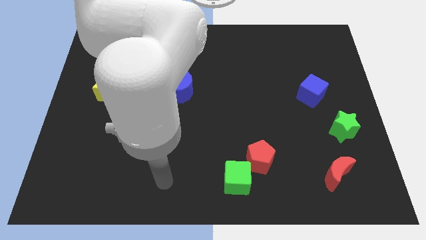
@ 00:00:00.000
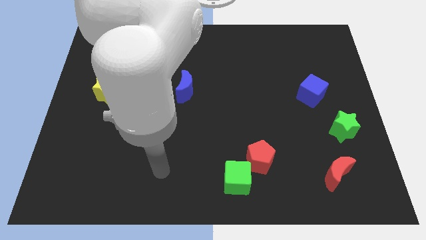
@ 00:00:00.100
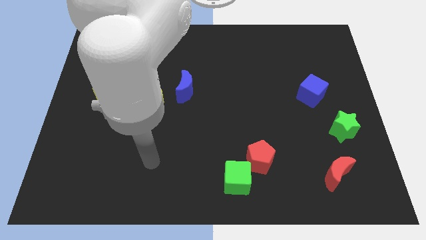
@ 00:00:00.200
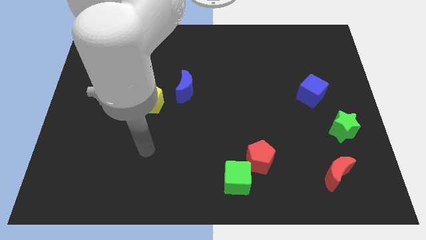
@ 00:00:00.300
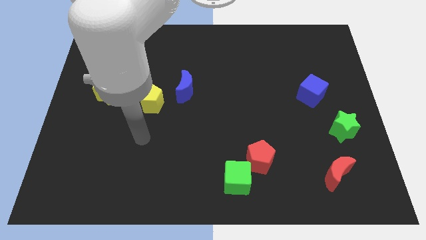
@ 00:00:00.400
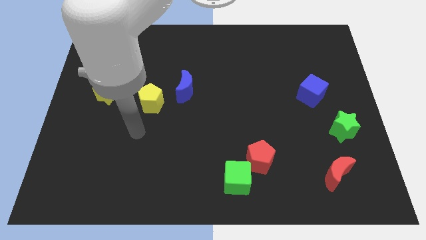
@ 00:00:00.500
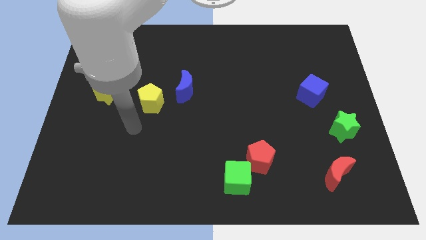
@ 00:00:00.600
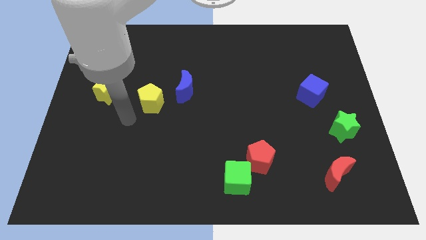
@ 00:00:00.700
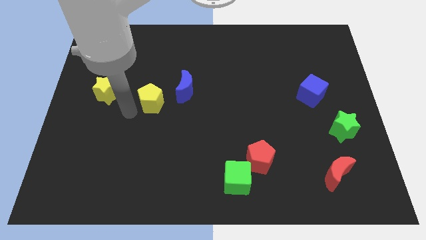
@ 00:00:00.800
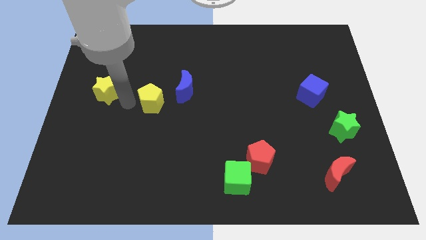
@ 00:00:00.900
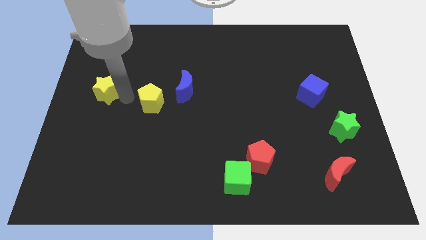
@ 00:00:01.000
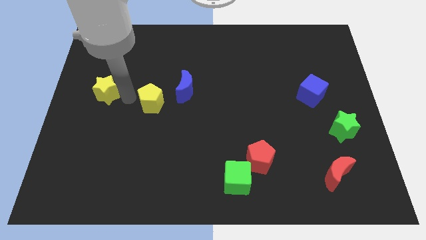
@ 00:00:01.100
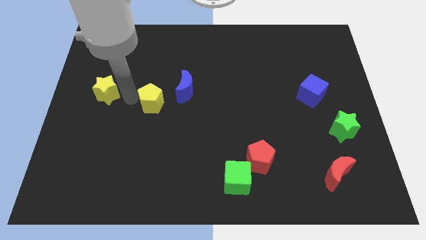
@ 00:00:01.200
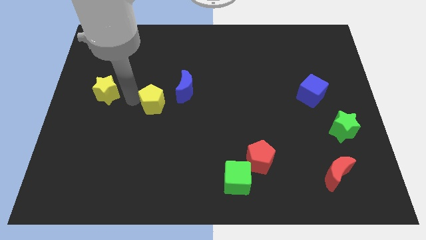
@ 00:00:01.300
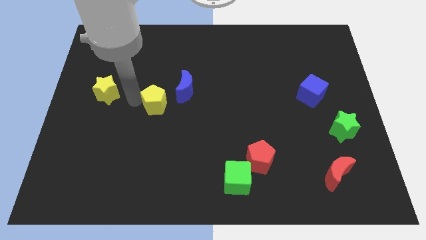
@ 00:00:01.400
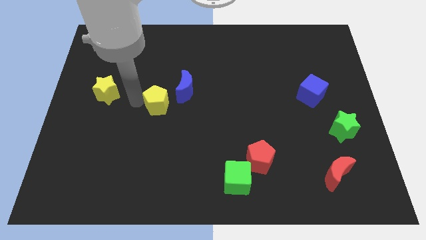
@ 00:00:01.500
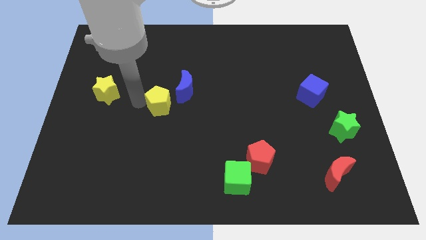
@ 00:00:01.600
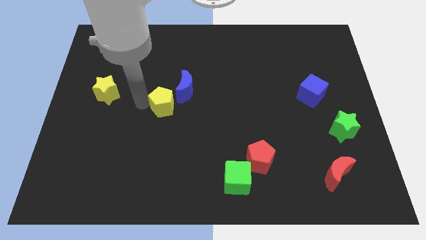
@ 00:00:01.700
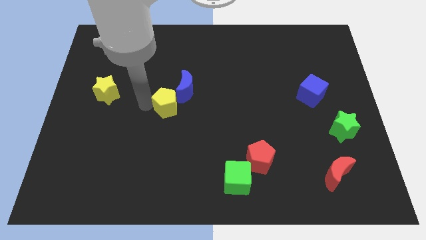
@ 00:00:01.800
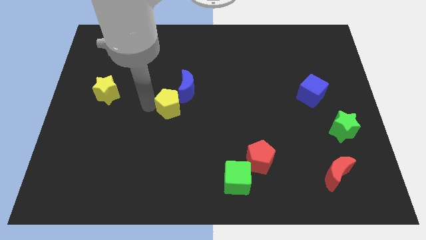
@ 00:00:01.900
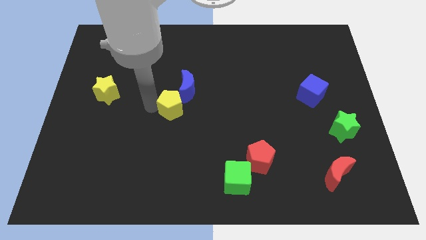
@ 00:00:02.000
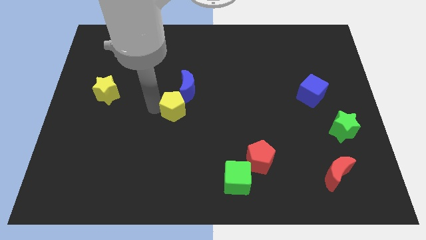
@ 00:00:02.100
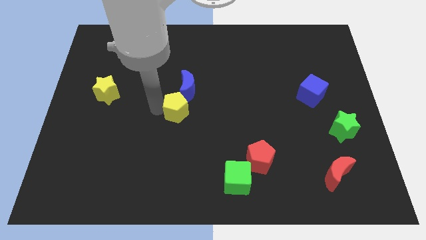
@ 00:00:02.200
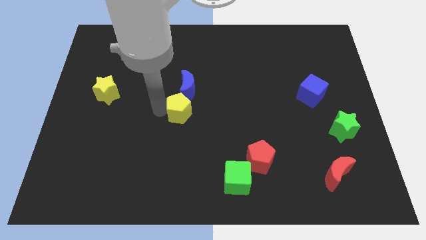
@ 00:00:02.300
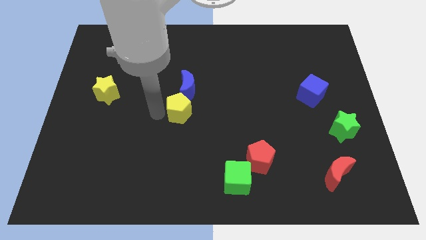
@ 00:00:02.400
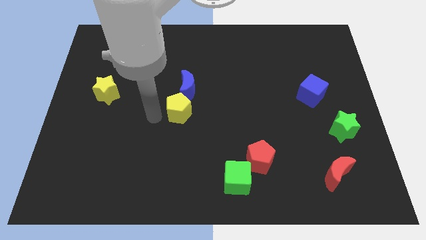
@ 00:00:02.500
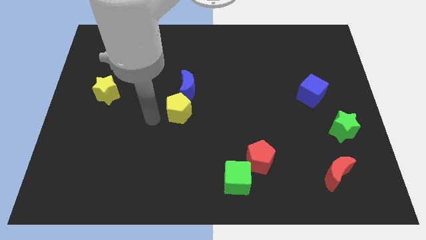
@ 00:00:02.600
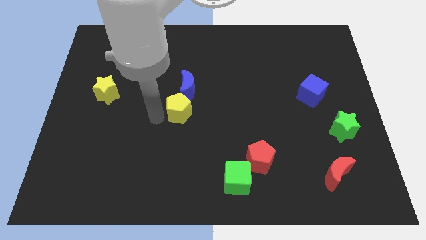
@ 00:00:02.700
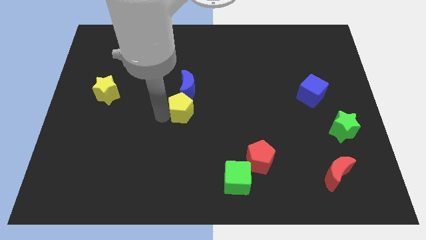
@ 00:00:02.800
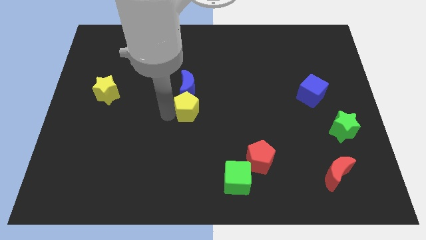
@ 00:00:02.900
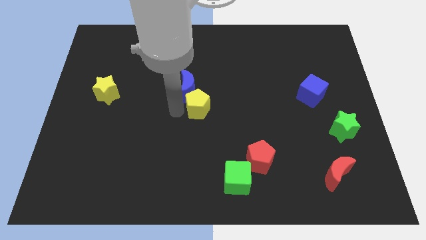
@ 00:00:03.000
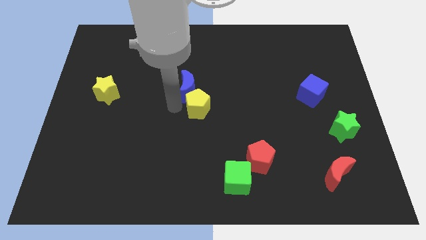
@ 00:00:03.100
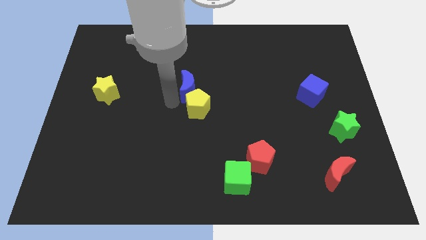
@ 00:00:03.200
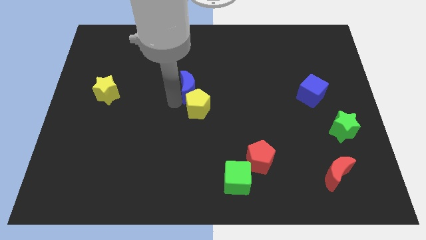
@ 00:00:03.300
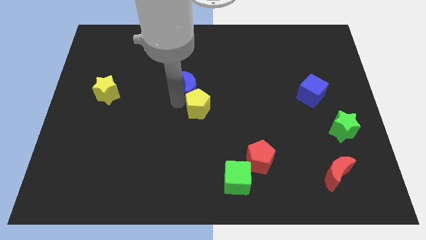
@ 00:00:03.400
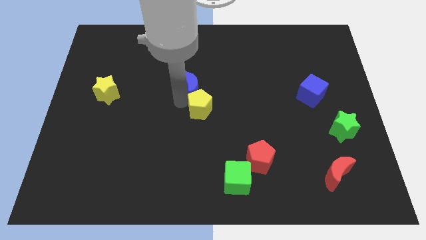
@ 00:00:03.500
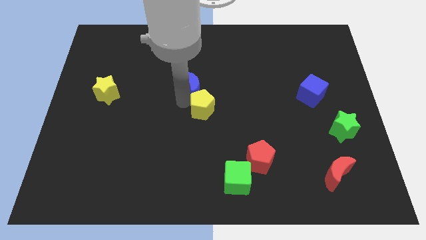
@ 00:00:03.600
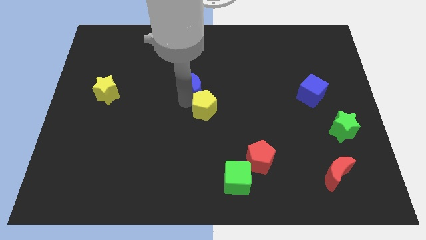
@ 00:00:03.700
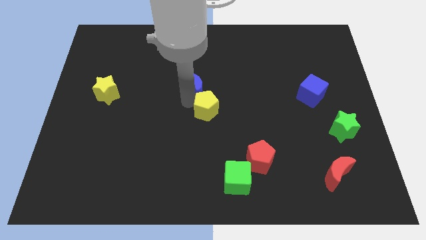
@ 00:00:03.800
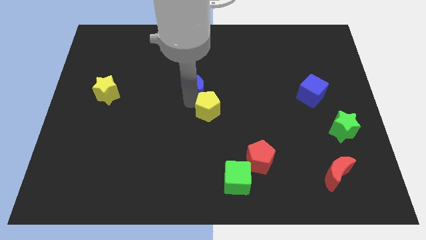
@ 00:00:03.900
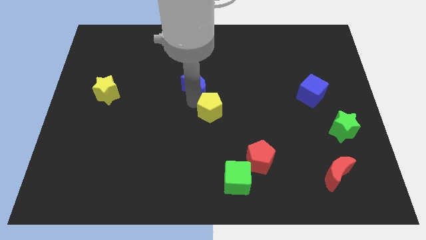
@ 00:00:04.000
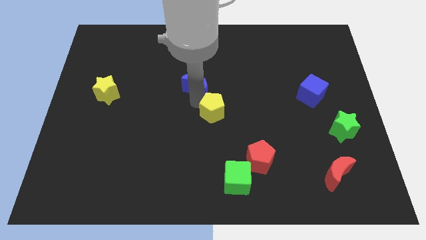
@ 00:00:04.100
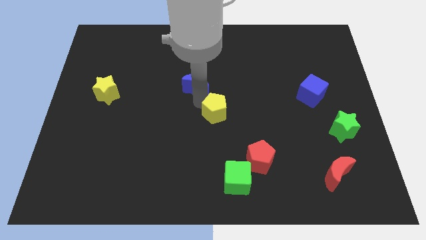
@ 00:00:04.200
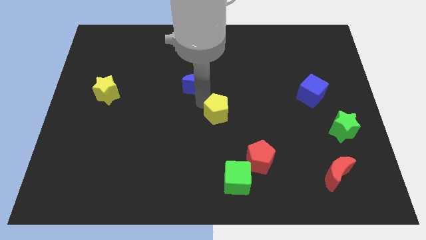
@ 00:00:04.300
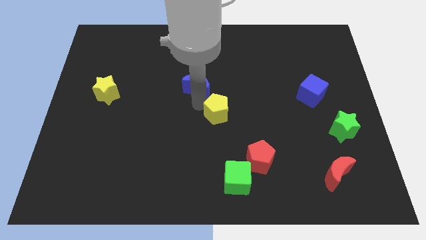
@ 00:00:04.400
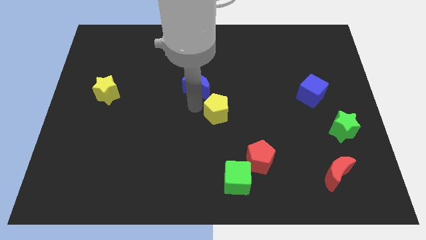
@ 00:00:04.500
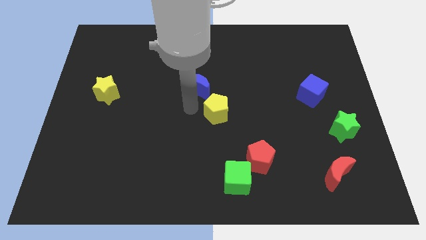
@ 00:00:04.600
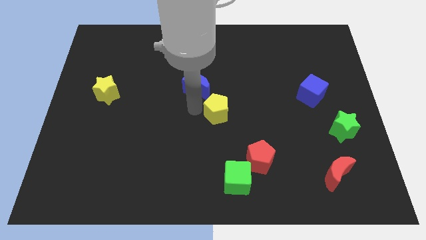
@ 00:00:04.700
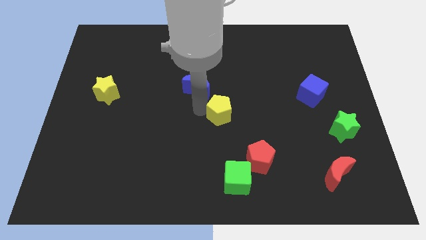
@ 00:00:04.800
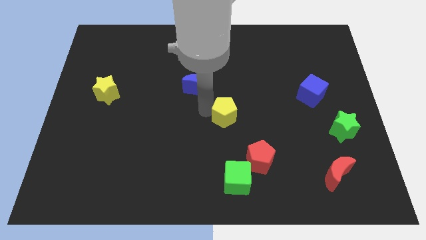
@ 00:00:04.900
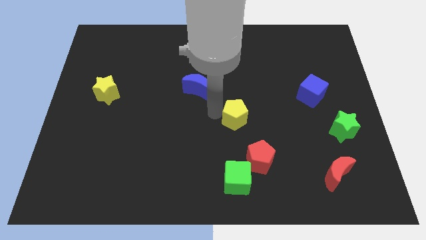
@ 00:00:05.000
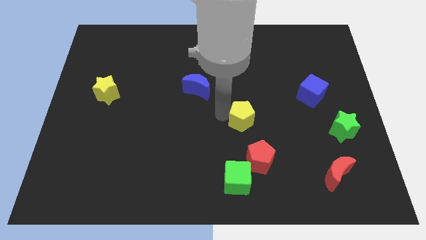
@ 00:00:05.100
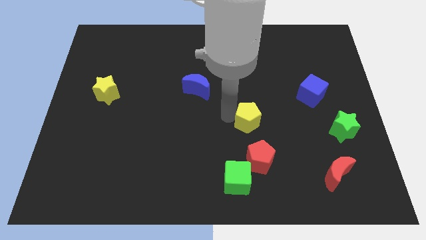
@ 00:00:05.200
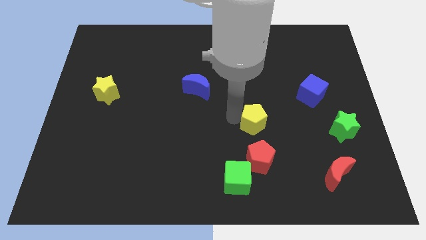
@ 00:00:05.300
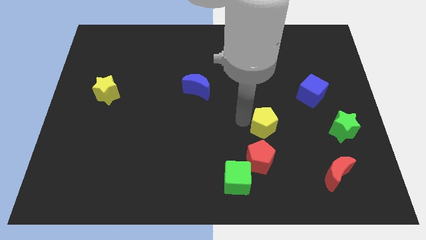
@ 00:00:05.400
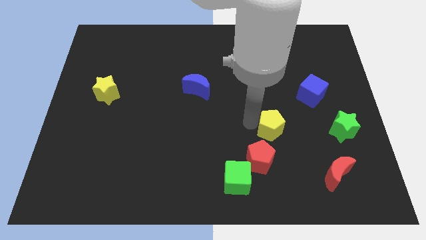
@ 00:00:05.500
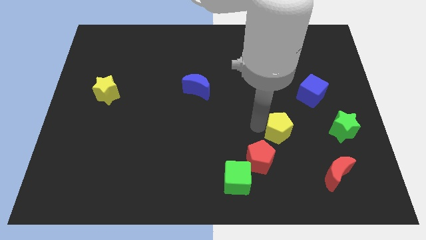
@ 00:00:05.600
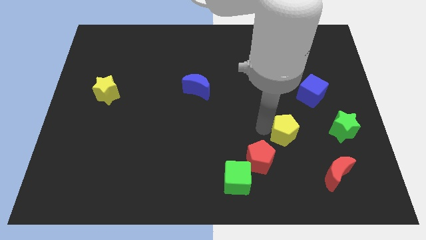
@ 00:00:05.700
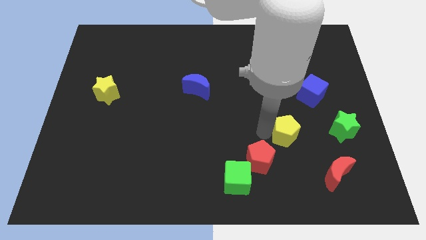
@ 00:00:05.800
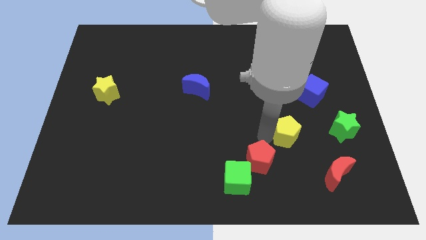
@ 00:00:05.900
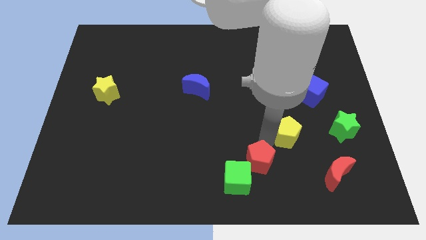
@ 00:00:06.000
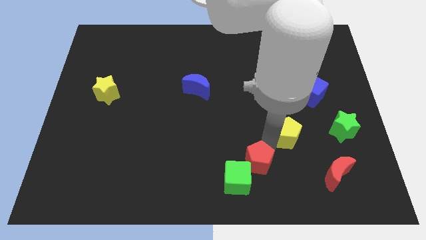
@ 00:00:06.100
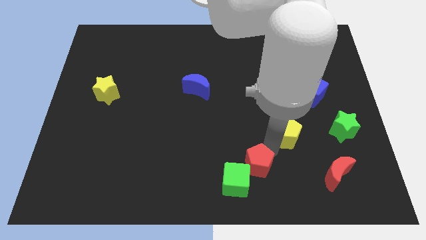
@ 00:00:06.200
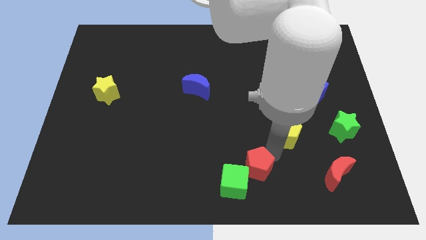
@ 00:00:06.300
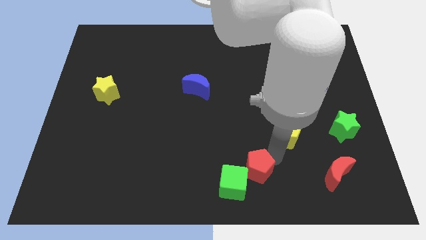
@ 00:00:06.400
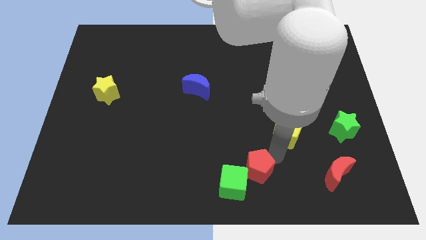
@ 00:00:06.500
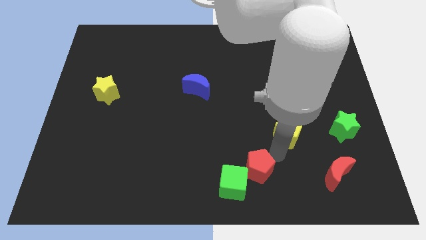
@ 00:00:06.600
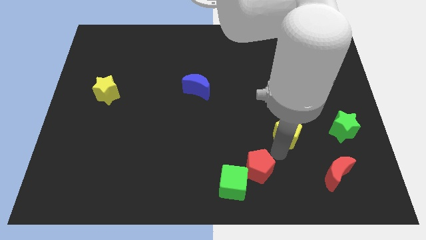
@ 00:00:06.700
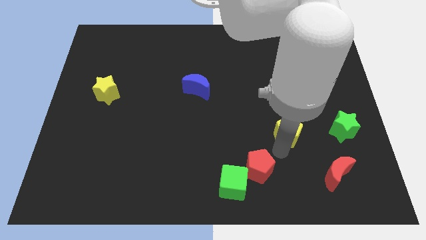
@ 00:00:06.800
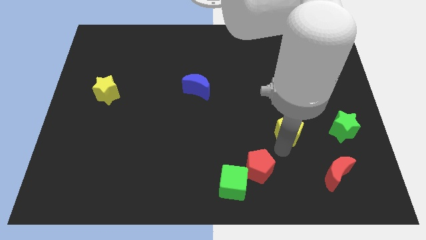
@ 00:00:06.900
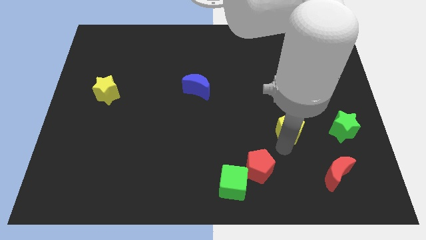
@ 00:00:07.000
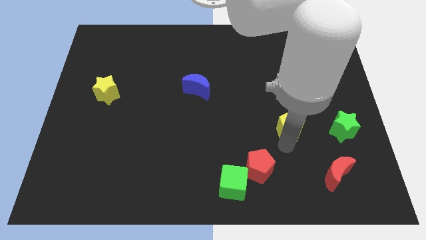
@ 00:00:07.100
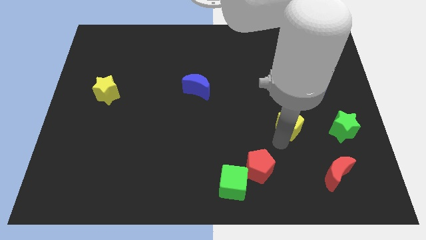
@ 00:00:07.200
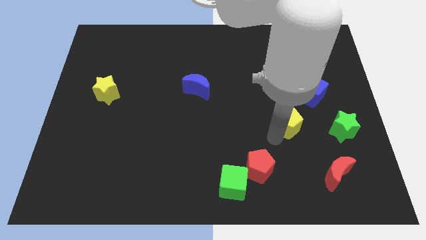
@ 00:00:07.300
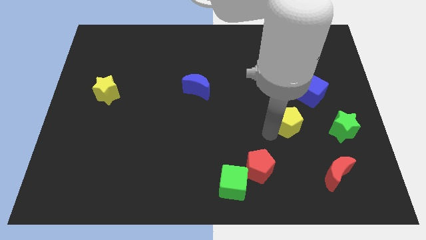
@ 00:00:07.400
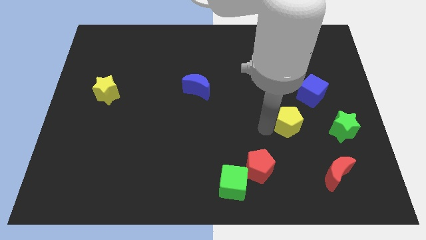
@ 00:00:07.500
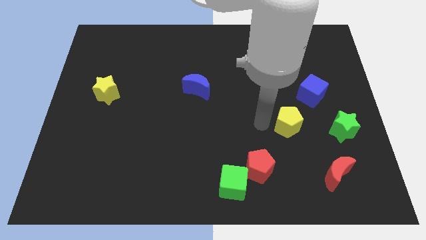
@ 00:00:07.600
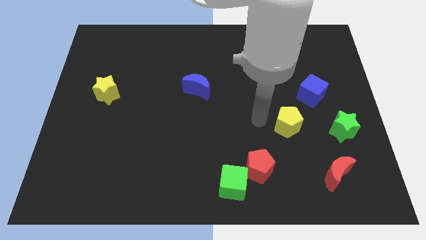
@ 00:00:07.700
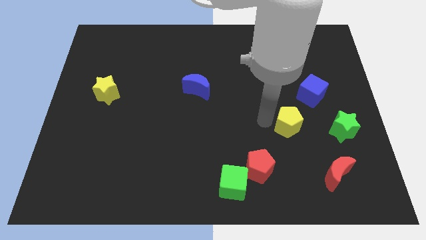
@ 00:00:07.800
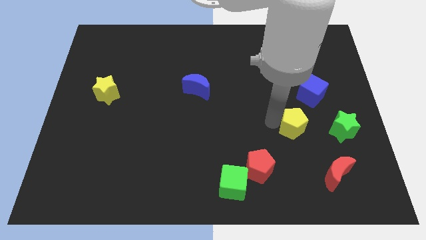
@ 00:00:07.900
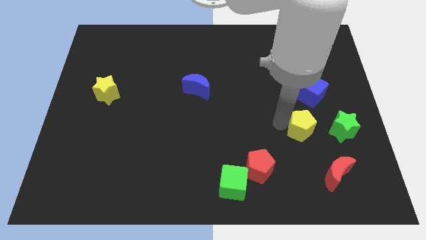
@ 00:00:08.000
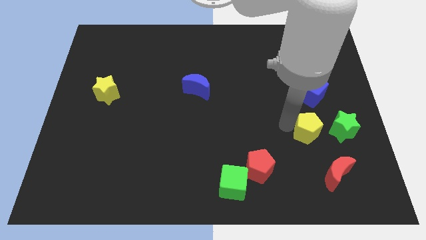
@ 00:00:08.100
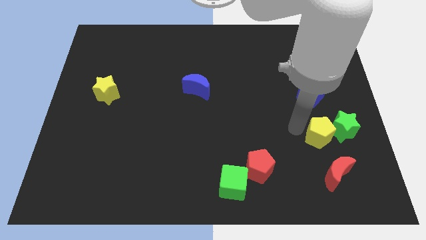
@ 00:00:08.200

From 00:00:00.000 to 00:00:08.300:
move the yellow pentagon towards the green star
